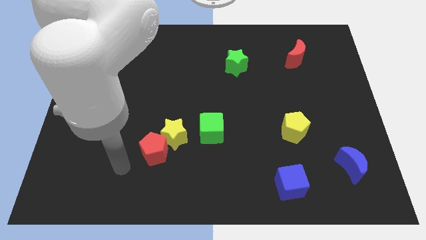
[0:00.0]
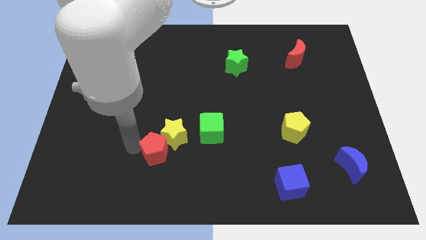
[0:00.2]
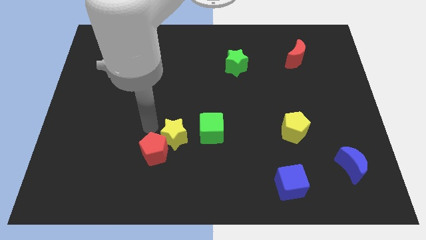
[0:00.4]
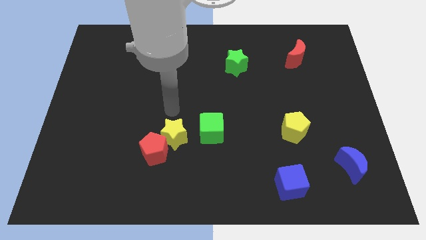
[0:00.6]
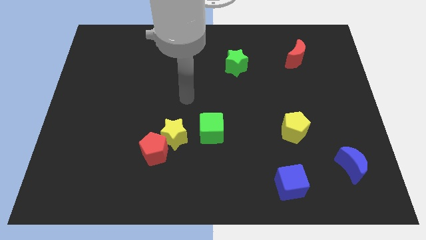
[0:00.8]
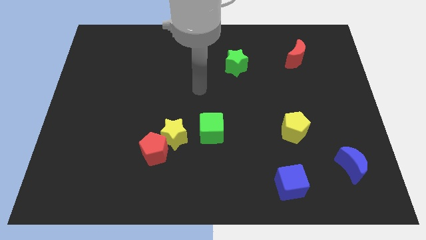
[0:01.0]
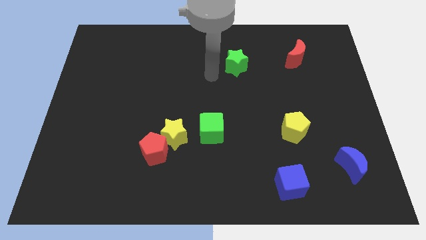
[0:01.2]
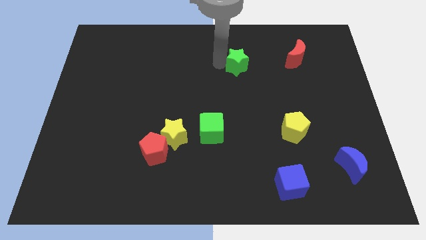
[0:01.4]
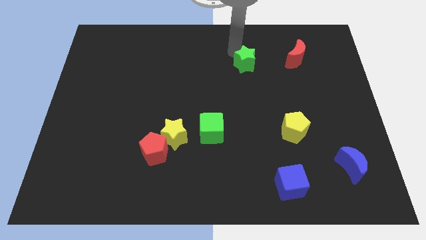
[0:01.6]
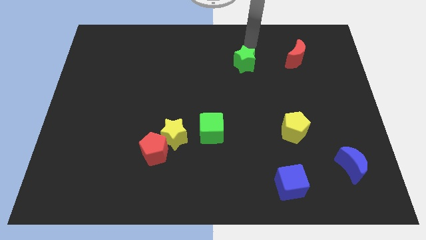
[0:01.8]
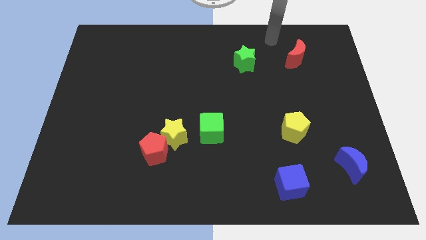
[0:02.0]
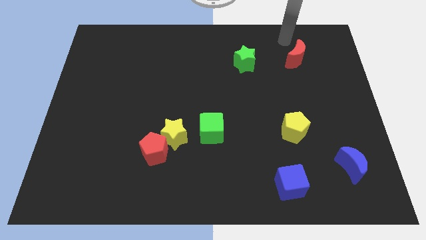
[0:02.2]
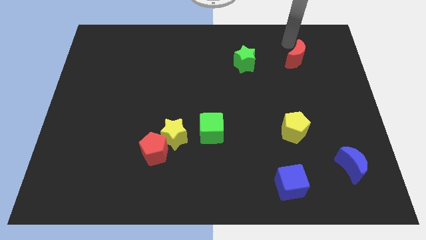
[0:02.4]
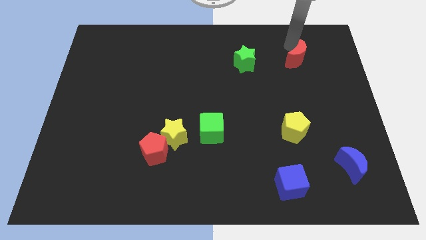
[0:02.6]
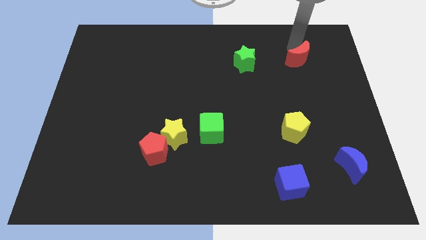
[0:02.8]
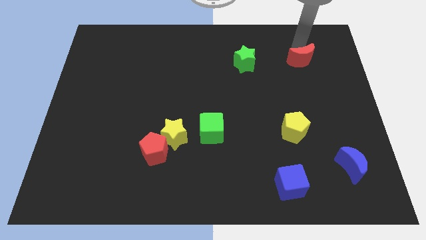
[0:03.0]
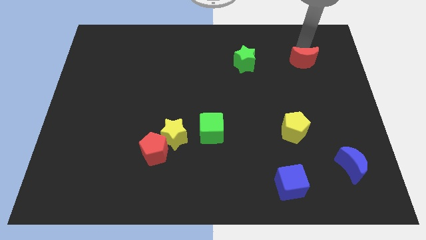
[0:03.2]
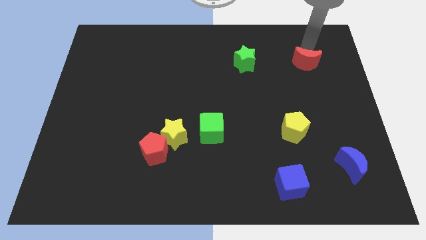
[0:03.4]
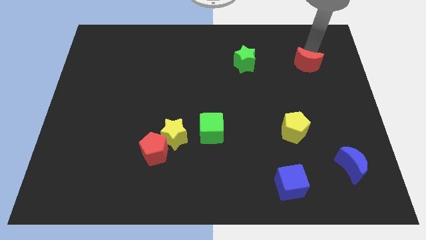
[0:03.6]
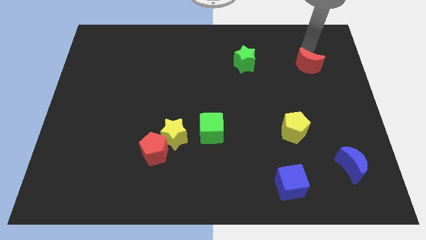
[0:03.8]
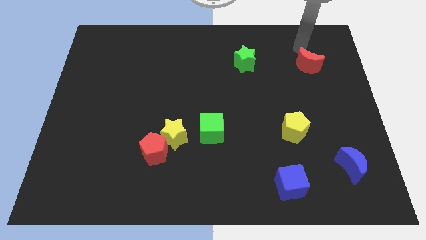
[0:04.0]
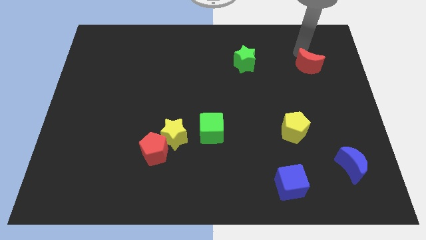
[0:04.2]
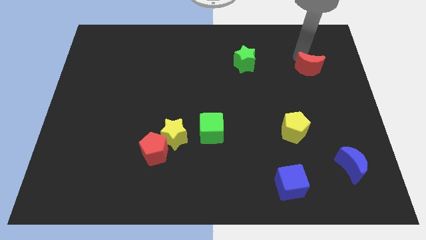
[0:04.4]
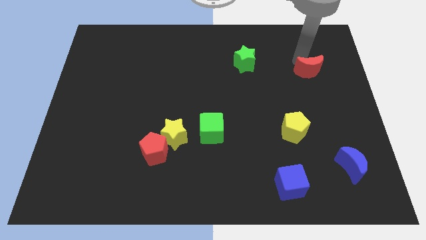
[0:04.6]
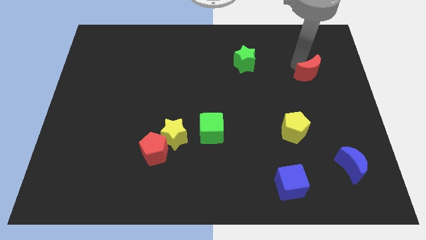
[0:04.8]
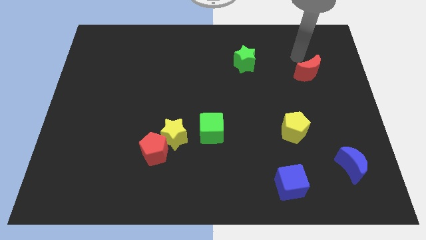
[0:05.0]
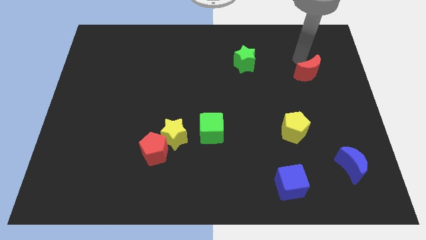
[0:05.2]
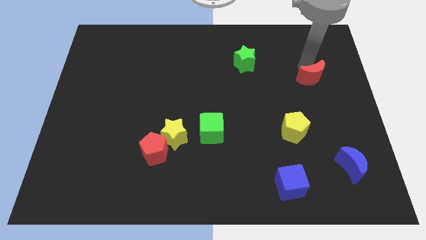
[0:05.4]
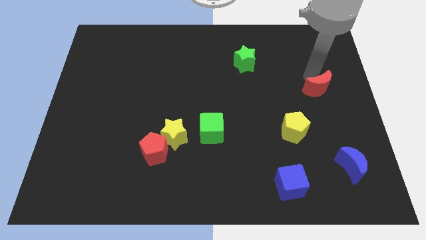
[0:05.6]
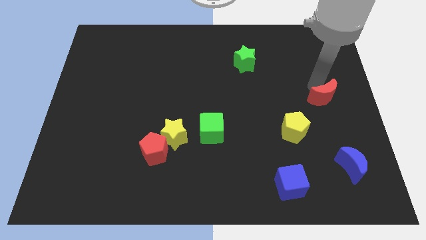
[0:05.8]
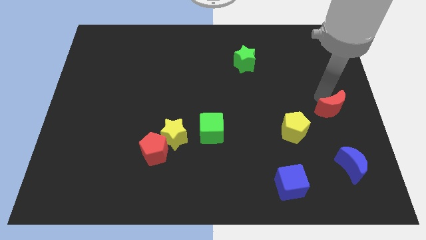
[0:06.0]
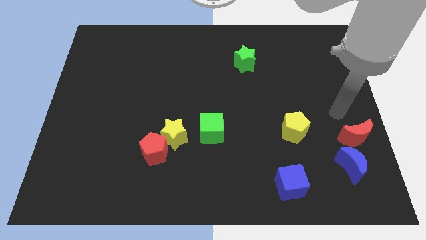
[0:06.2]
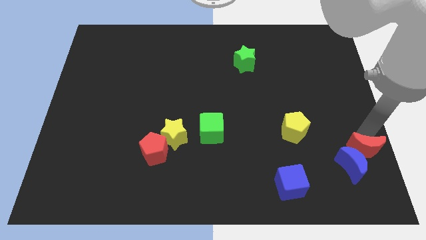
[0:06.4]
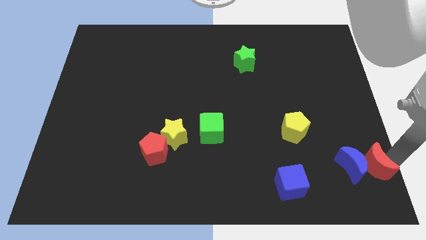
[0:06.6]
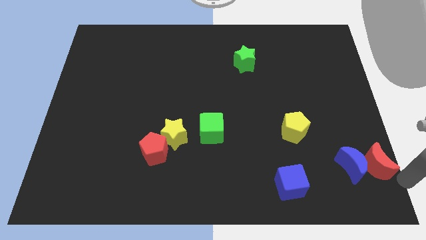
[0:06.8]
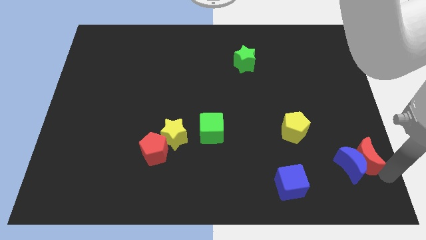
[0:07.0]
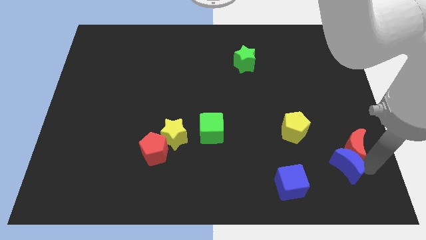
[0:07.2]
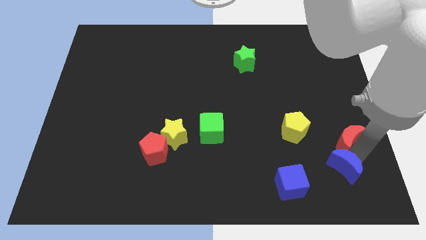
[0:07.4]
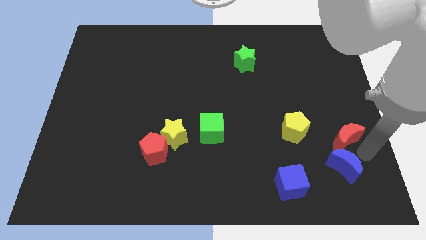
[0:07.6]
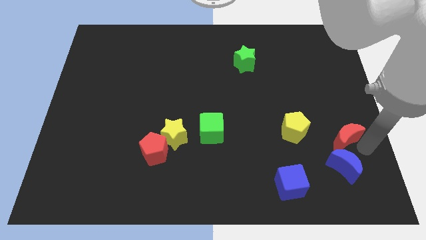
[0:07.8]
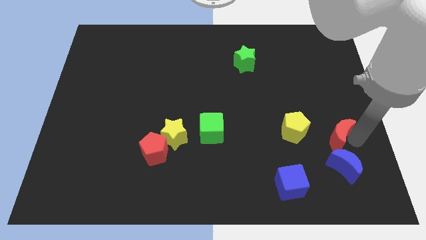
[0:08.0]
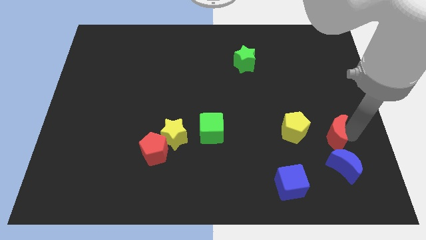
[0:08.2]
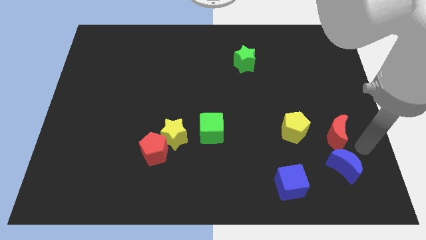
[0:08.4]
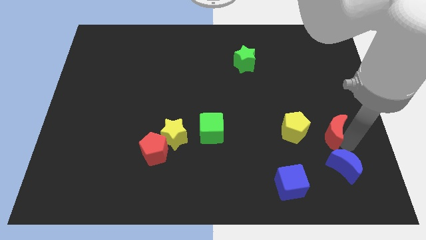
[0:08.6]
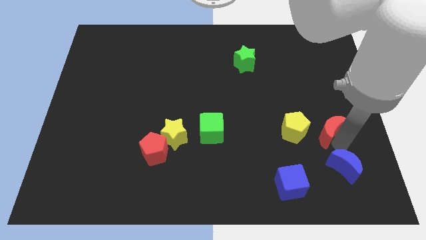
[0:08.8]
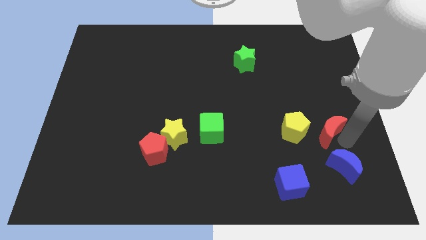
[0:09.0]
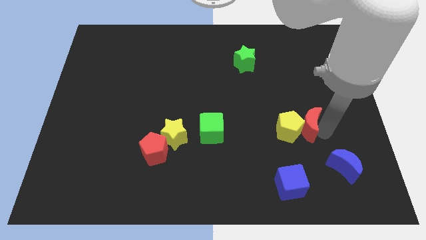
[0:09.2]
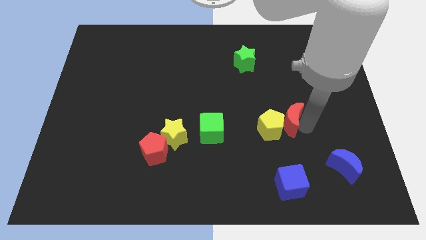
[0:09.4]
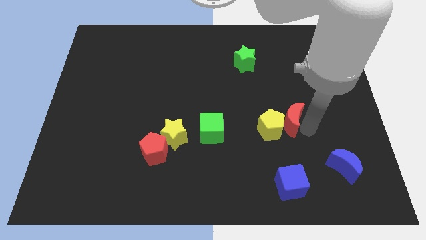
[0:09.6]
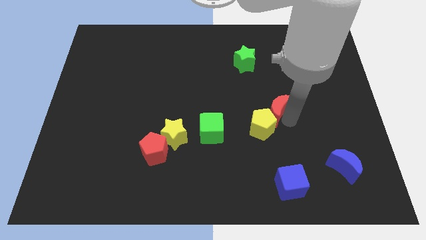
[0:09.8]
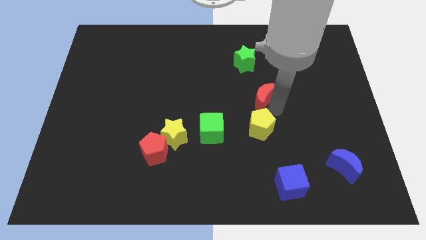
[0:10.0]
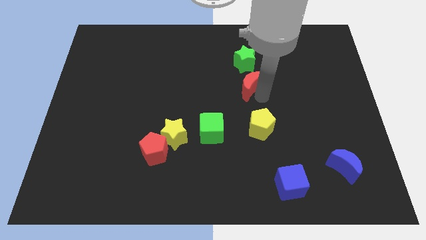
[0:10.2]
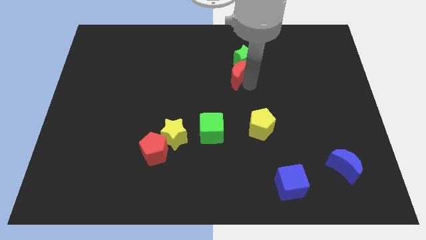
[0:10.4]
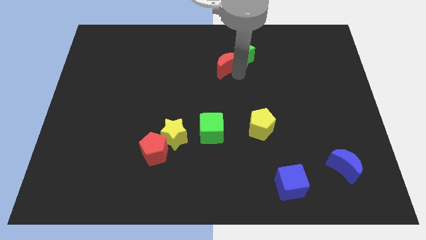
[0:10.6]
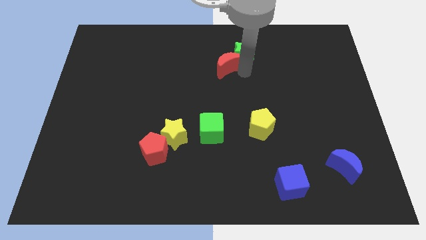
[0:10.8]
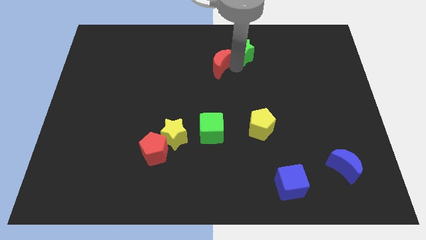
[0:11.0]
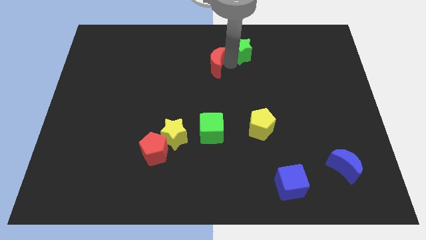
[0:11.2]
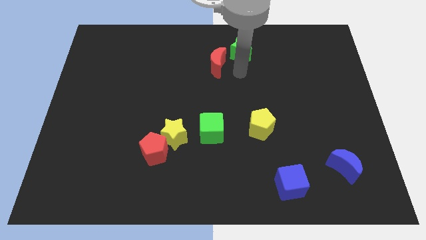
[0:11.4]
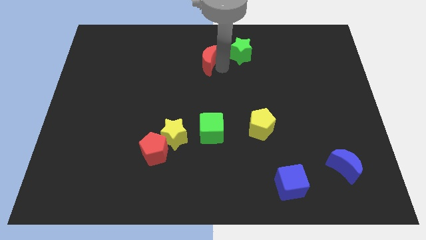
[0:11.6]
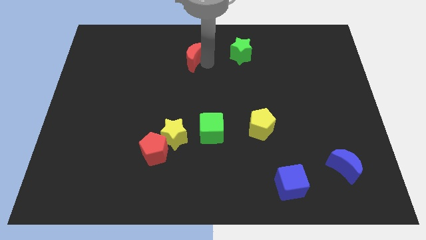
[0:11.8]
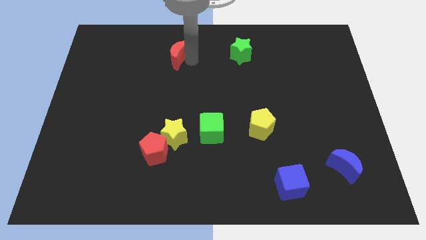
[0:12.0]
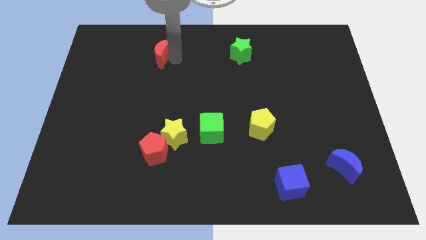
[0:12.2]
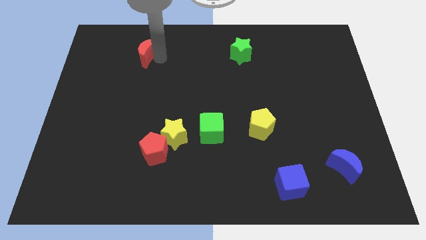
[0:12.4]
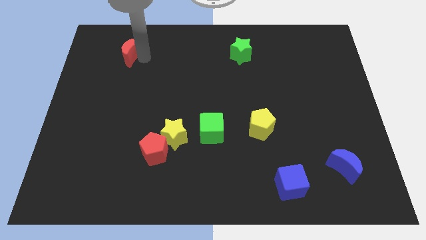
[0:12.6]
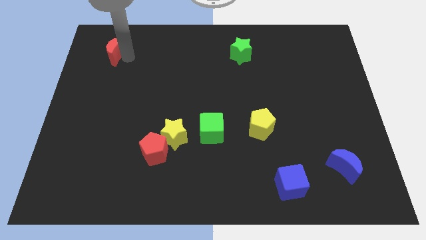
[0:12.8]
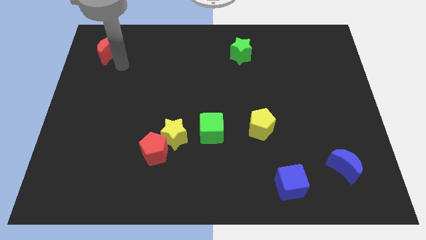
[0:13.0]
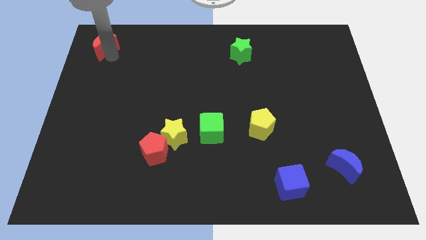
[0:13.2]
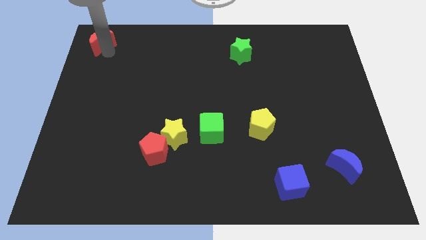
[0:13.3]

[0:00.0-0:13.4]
slide the red moon to the top left corner
